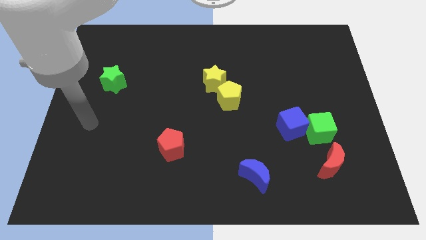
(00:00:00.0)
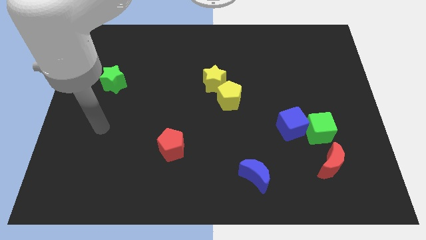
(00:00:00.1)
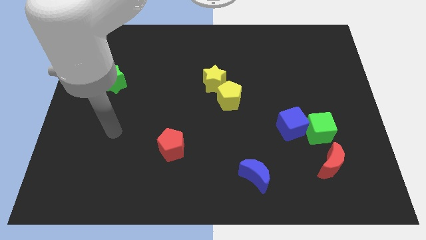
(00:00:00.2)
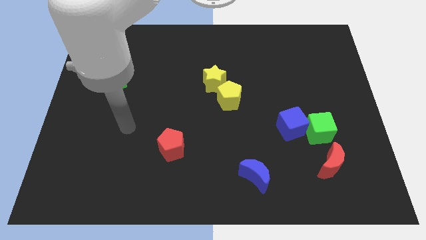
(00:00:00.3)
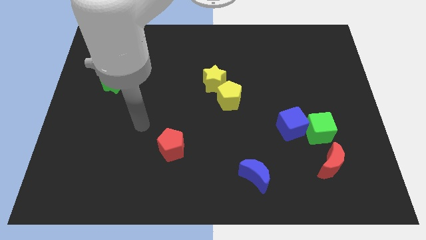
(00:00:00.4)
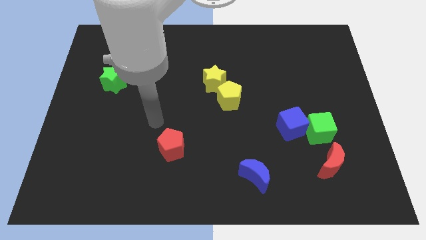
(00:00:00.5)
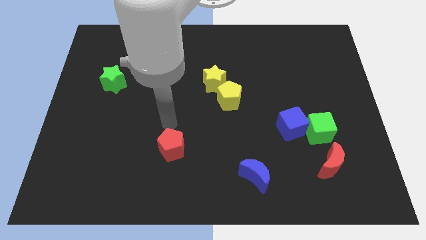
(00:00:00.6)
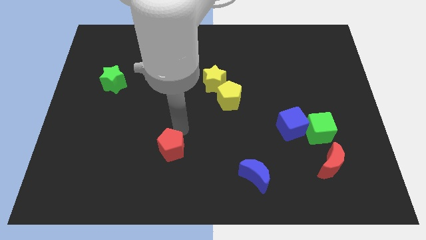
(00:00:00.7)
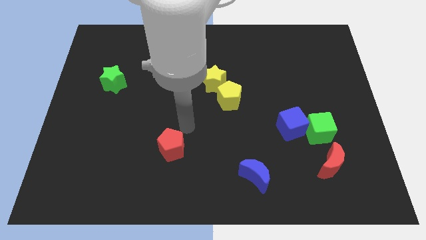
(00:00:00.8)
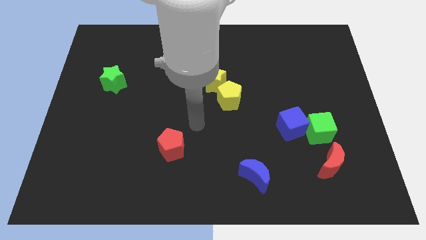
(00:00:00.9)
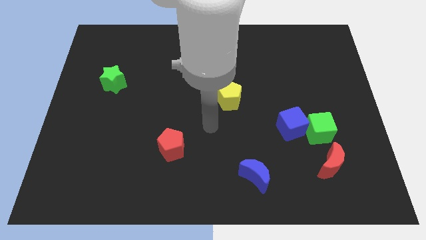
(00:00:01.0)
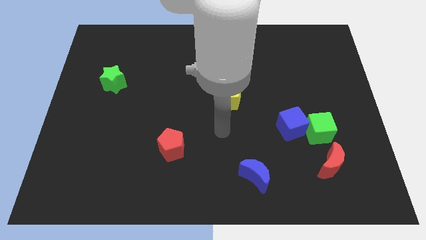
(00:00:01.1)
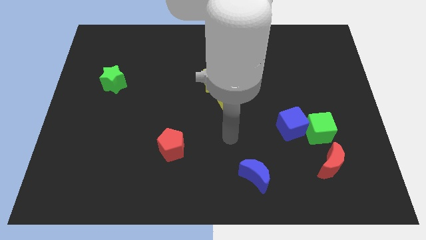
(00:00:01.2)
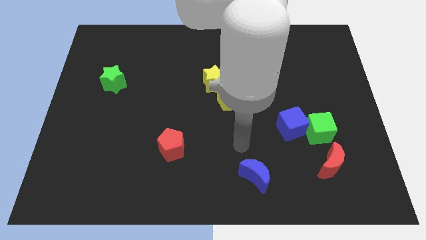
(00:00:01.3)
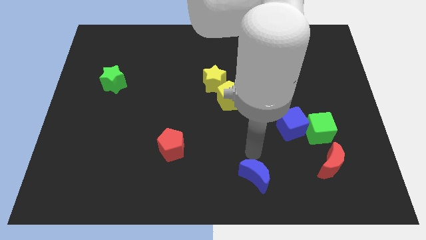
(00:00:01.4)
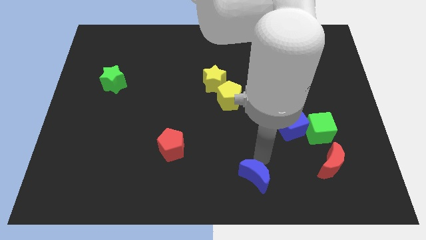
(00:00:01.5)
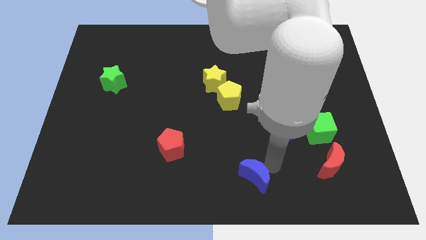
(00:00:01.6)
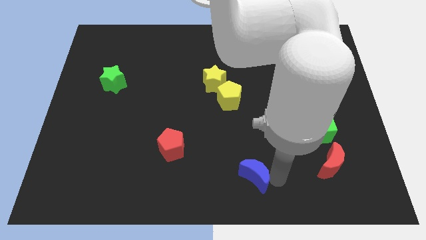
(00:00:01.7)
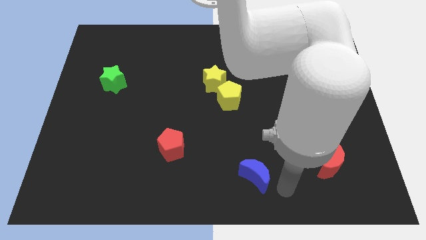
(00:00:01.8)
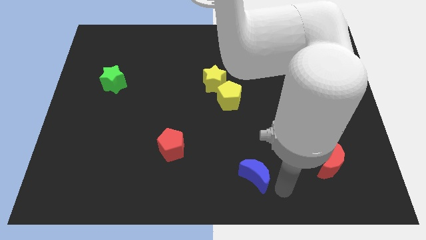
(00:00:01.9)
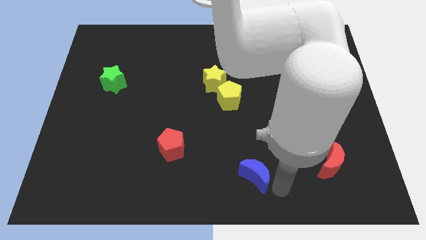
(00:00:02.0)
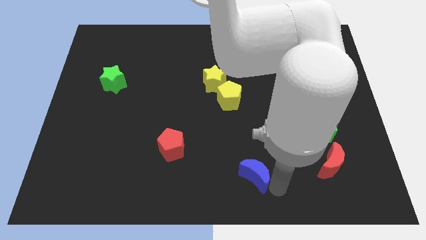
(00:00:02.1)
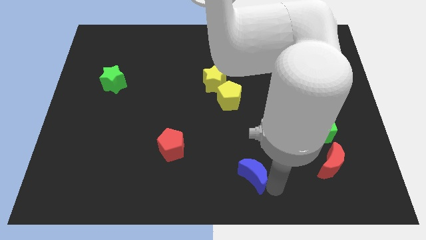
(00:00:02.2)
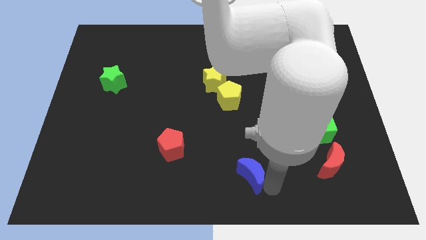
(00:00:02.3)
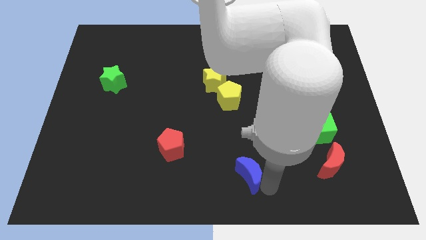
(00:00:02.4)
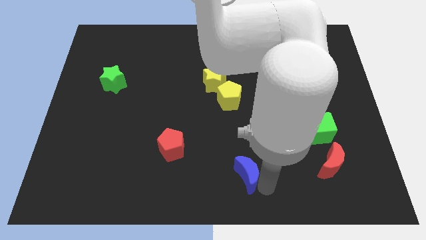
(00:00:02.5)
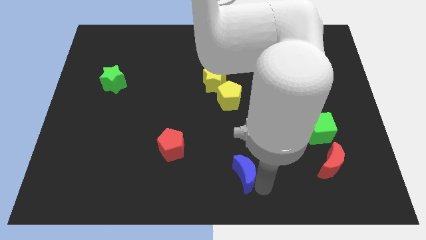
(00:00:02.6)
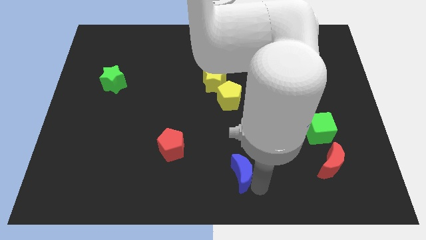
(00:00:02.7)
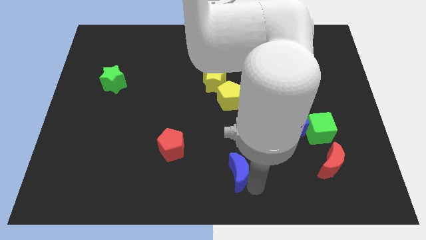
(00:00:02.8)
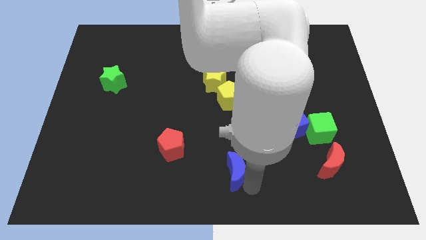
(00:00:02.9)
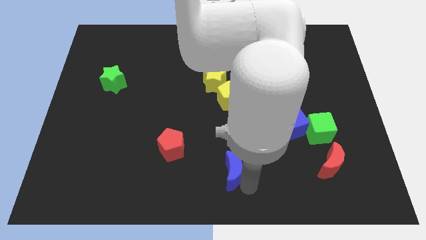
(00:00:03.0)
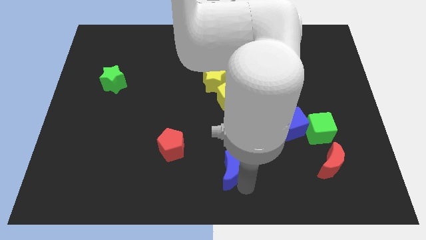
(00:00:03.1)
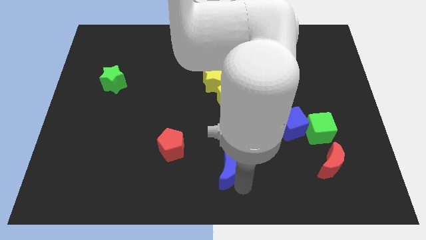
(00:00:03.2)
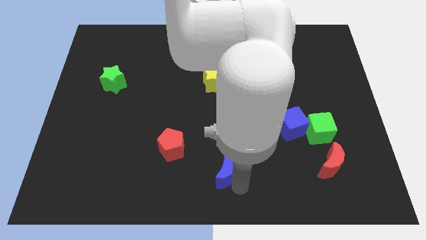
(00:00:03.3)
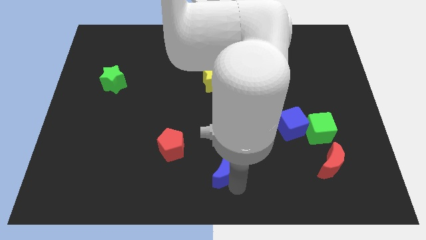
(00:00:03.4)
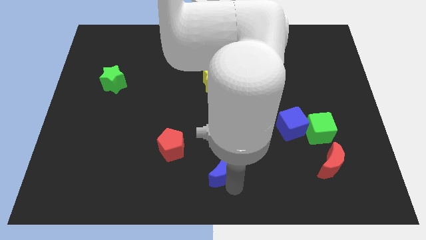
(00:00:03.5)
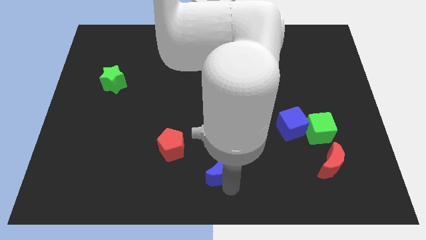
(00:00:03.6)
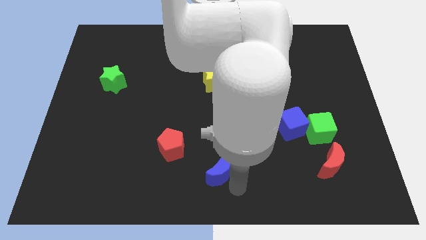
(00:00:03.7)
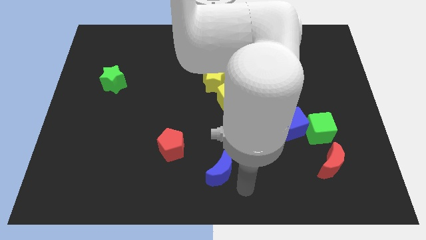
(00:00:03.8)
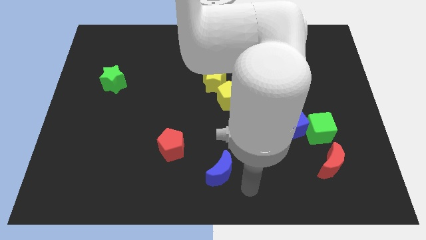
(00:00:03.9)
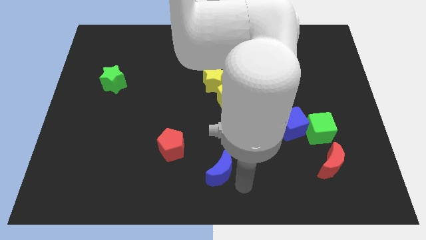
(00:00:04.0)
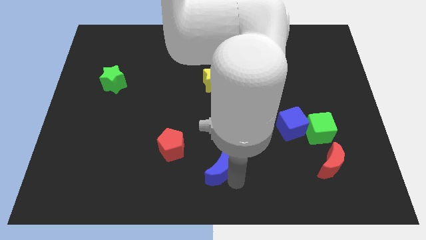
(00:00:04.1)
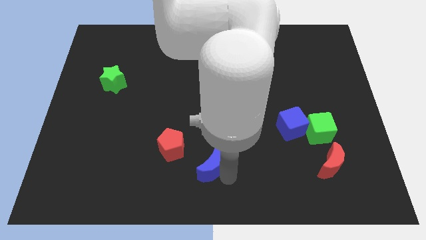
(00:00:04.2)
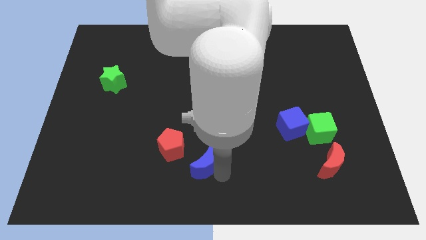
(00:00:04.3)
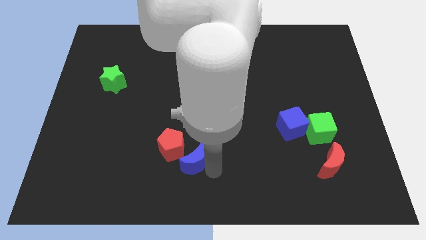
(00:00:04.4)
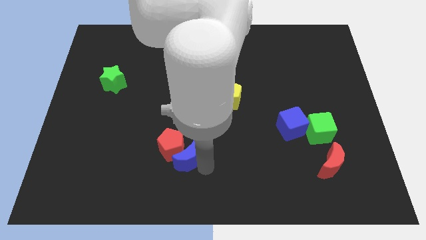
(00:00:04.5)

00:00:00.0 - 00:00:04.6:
slide the blue moon to the red pentagon

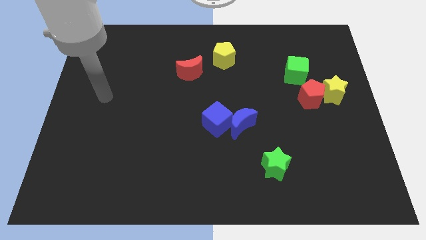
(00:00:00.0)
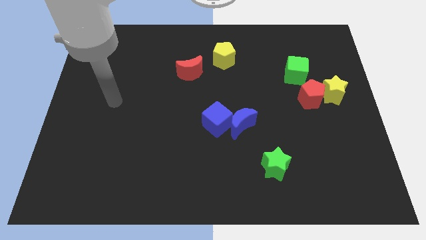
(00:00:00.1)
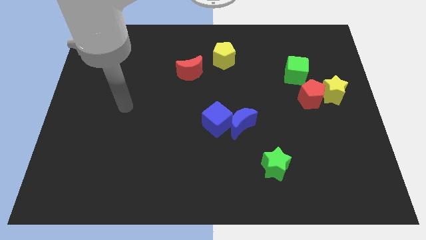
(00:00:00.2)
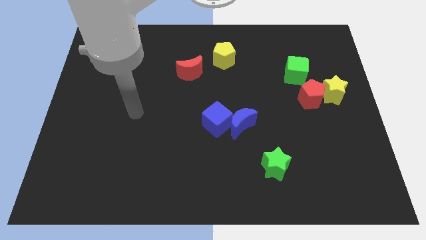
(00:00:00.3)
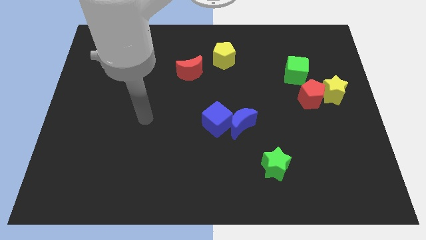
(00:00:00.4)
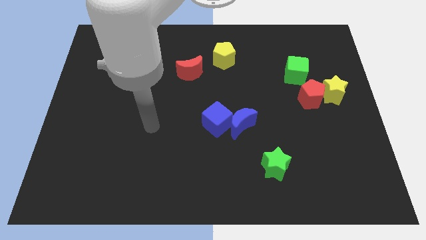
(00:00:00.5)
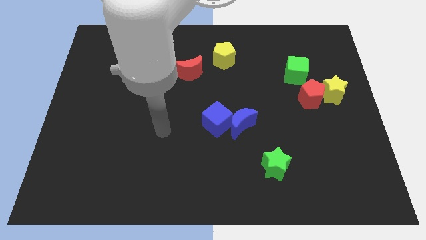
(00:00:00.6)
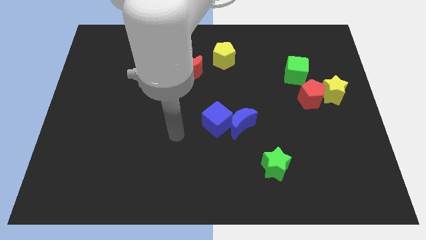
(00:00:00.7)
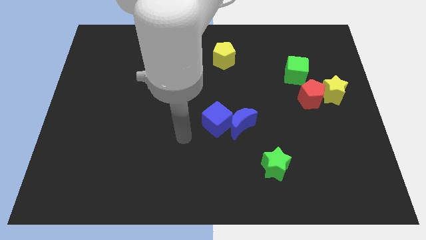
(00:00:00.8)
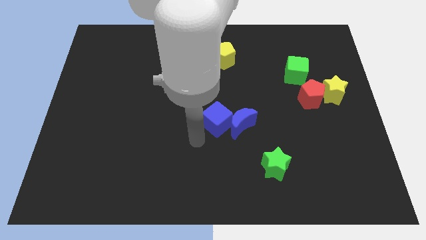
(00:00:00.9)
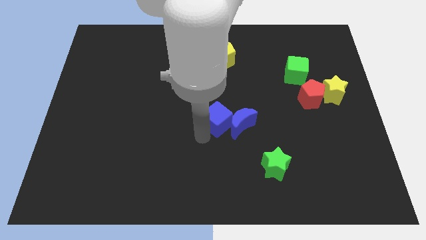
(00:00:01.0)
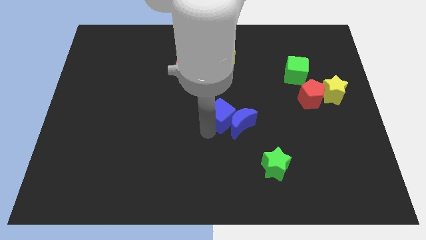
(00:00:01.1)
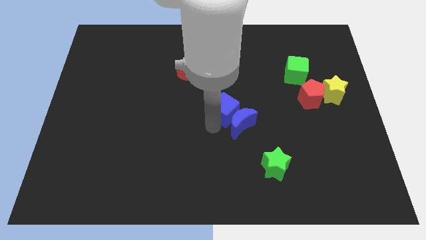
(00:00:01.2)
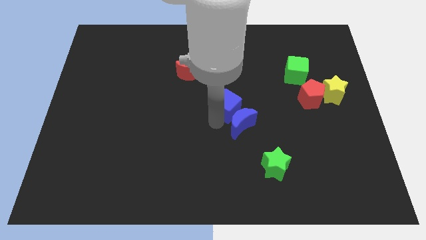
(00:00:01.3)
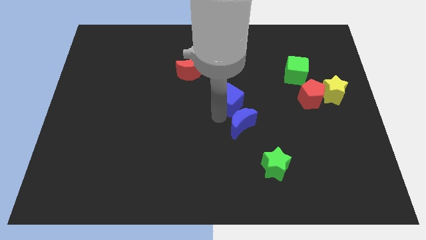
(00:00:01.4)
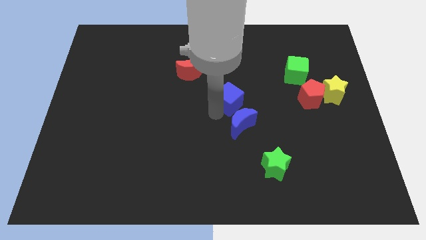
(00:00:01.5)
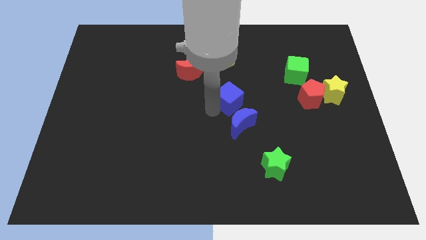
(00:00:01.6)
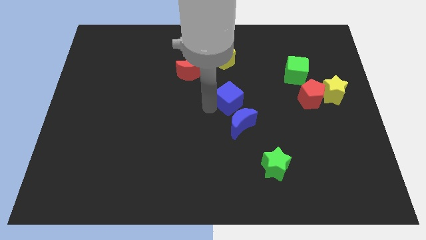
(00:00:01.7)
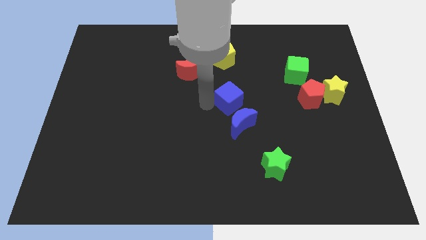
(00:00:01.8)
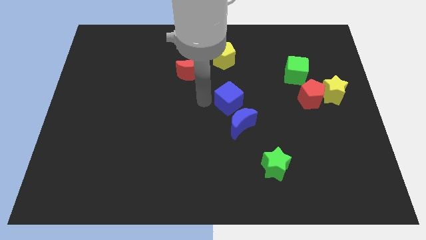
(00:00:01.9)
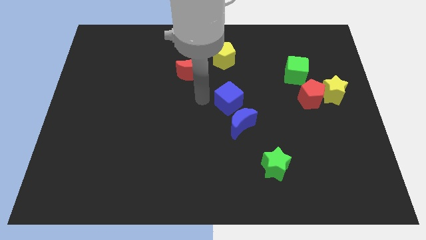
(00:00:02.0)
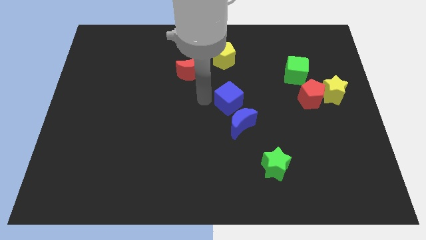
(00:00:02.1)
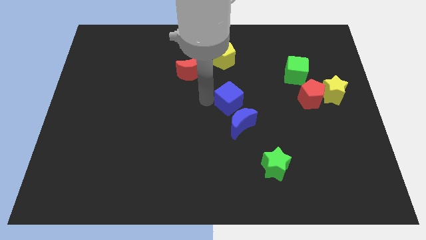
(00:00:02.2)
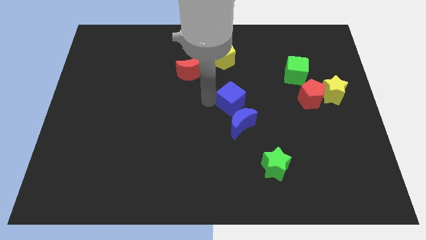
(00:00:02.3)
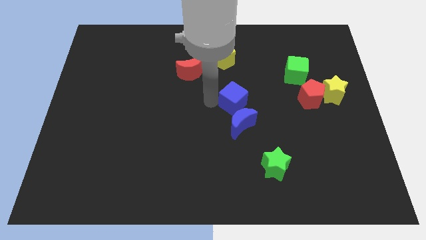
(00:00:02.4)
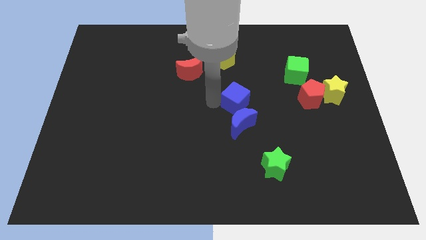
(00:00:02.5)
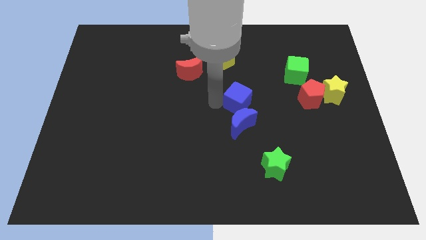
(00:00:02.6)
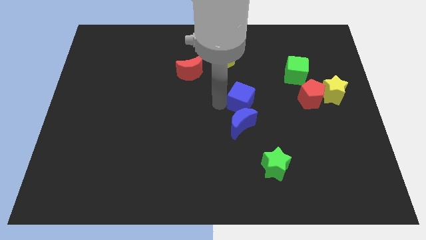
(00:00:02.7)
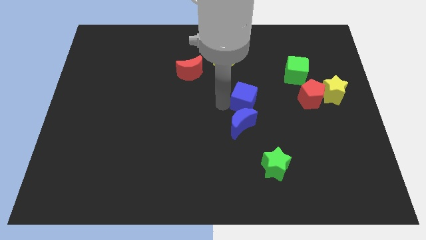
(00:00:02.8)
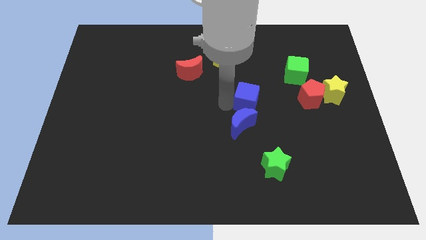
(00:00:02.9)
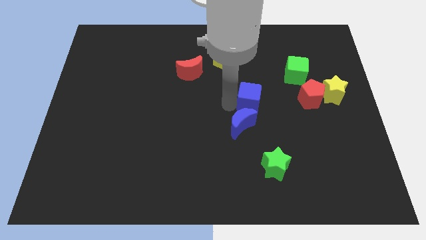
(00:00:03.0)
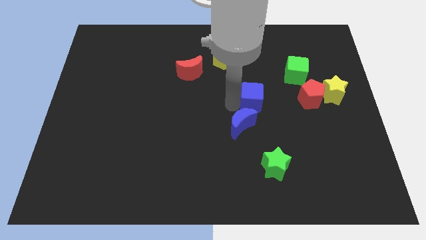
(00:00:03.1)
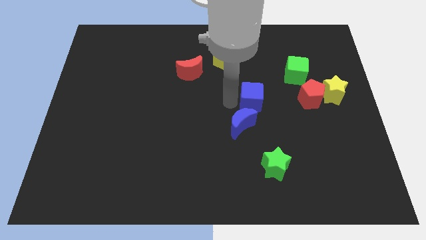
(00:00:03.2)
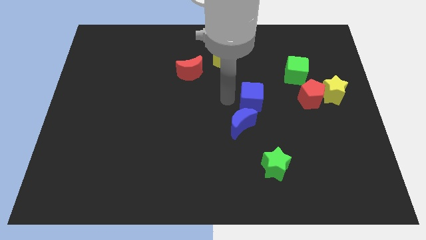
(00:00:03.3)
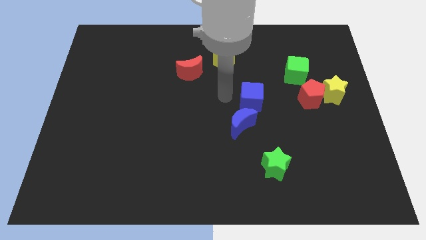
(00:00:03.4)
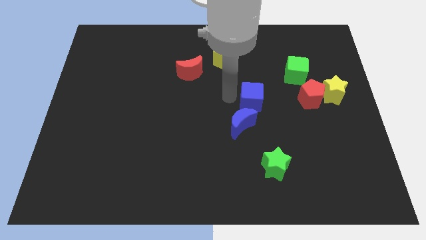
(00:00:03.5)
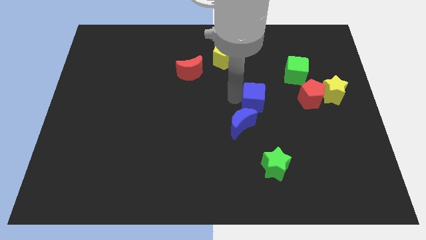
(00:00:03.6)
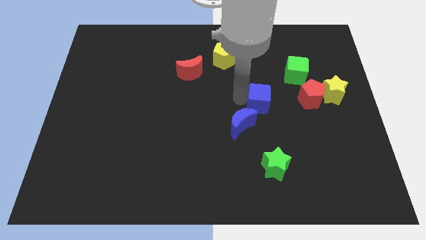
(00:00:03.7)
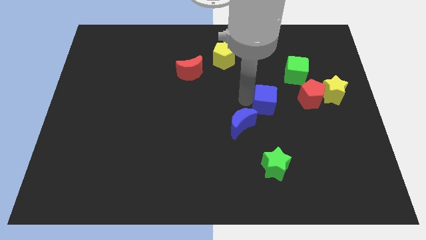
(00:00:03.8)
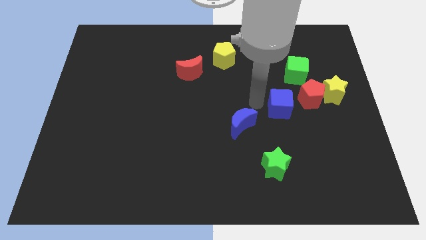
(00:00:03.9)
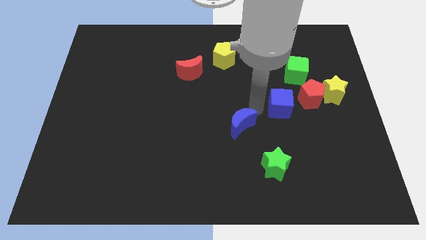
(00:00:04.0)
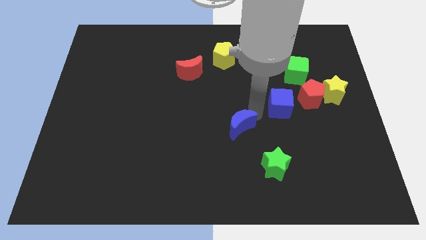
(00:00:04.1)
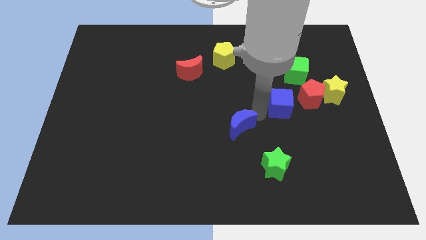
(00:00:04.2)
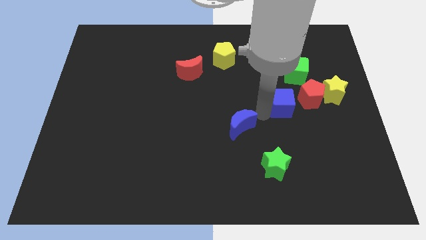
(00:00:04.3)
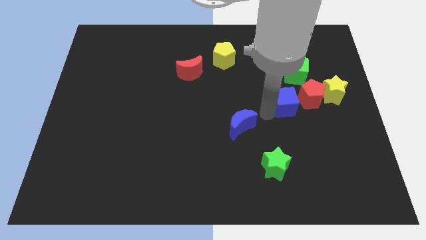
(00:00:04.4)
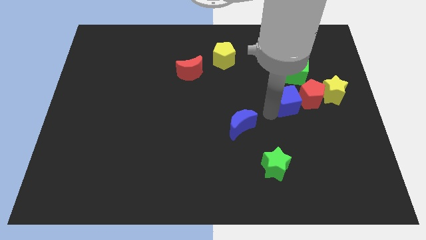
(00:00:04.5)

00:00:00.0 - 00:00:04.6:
slide the blue cube close to the red pentagon
